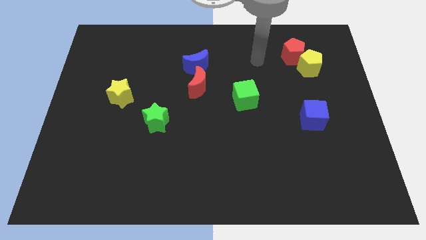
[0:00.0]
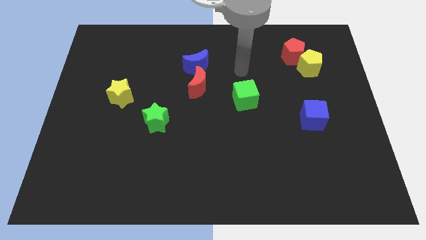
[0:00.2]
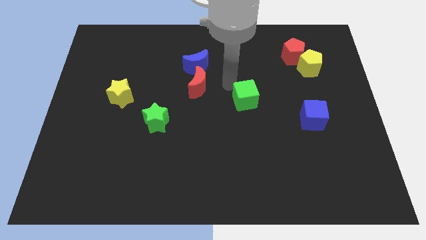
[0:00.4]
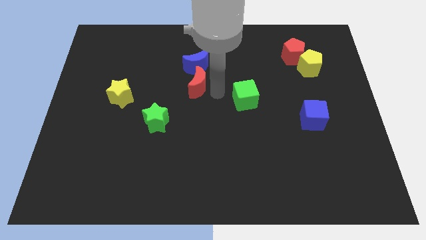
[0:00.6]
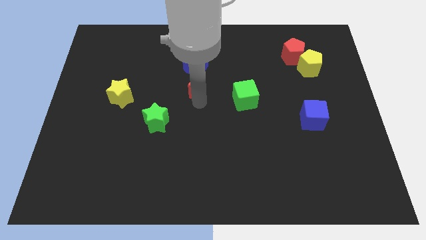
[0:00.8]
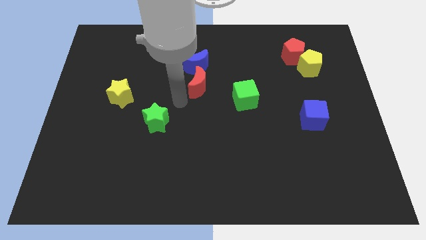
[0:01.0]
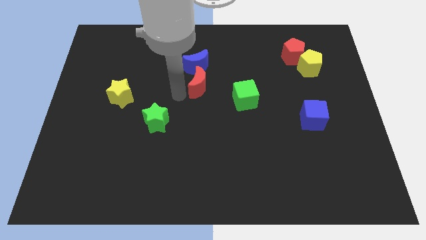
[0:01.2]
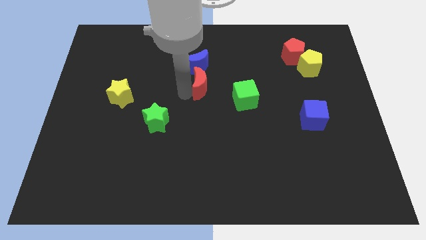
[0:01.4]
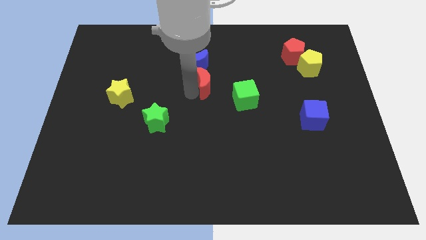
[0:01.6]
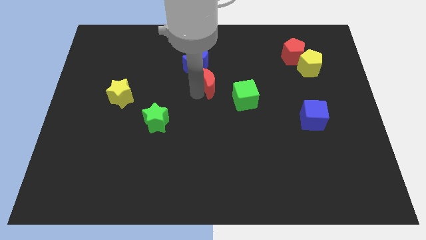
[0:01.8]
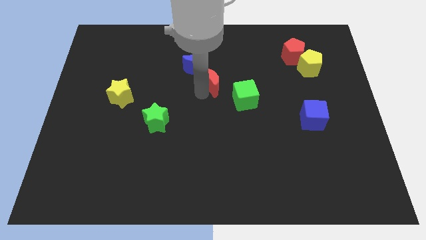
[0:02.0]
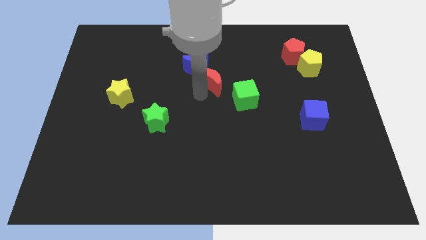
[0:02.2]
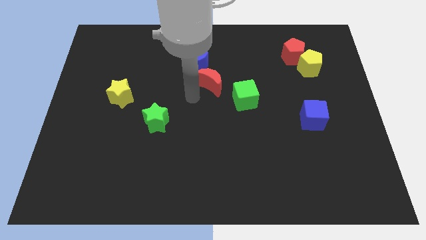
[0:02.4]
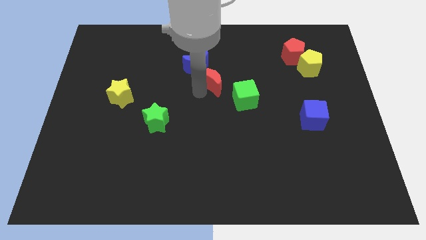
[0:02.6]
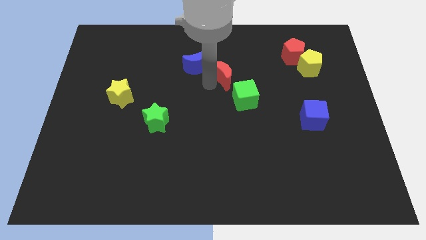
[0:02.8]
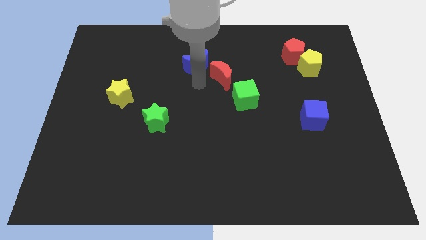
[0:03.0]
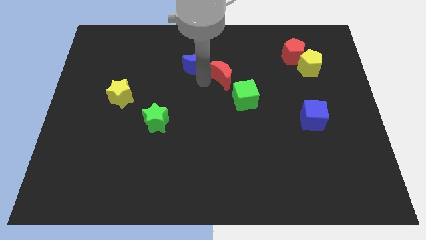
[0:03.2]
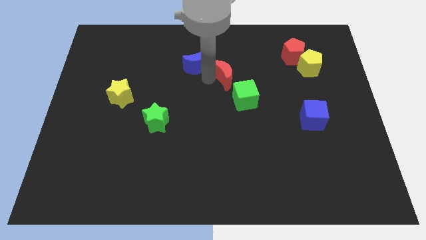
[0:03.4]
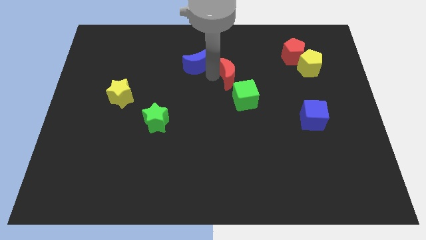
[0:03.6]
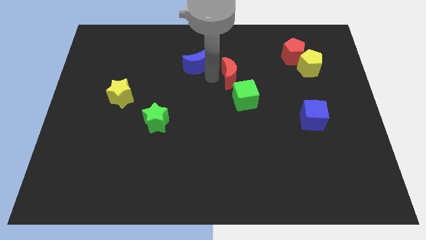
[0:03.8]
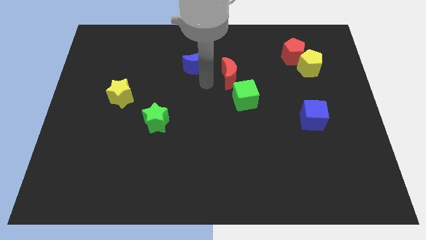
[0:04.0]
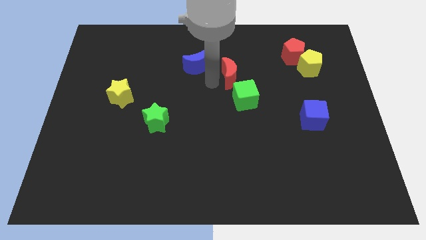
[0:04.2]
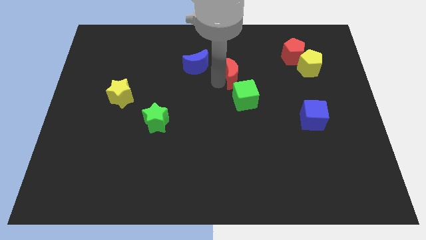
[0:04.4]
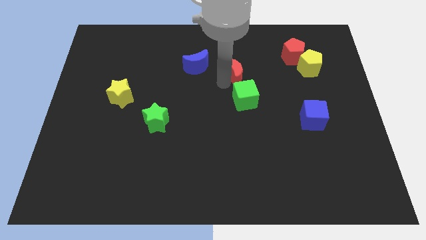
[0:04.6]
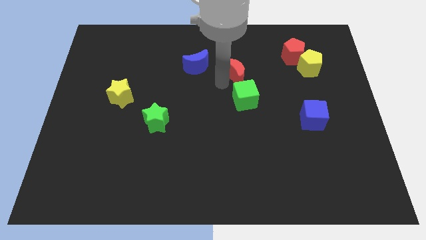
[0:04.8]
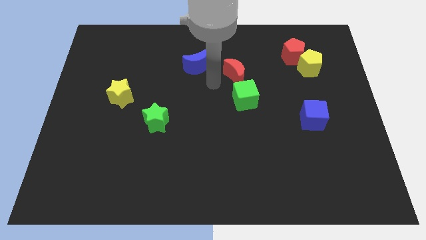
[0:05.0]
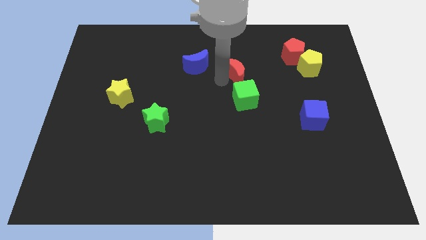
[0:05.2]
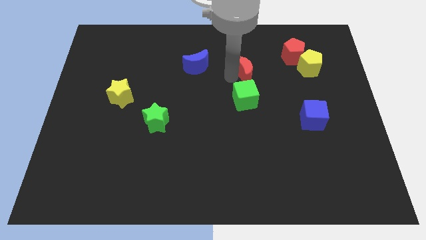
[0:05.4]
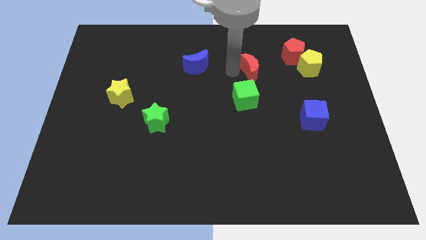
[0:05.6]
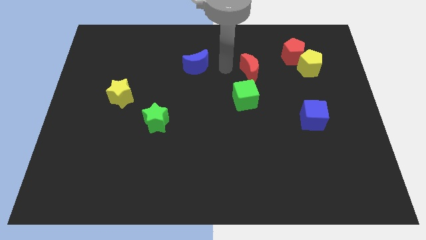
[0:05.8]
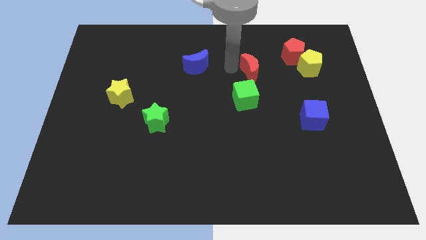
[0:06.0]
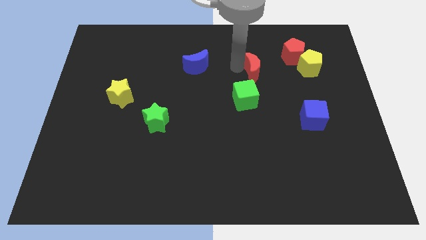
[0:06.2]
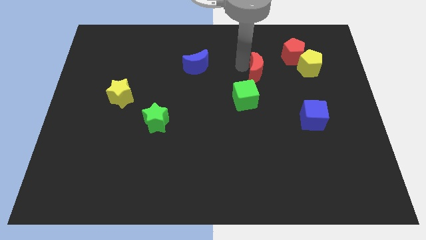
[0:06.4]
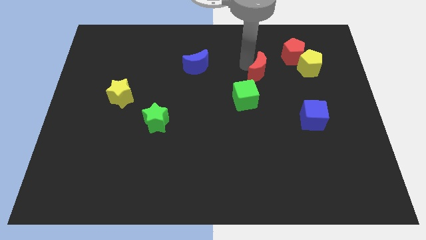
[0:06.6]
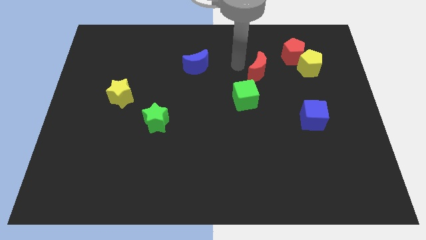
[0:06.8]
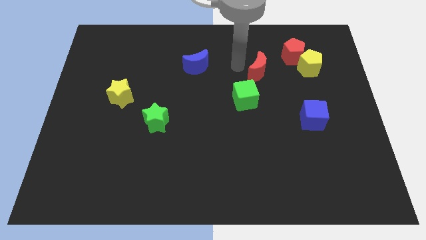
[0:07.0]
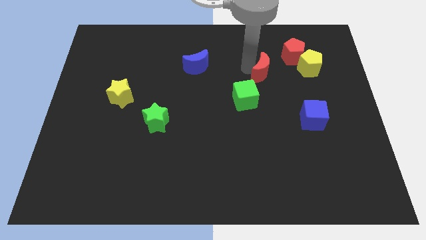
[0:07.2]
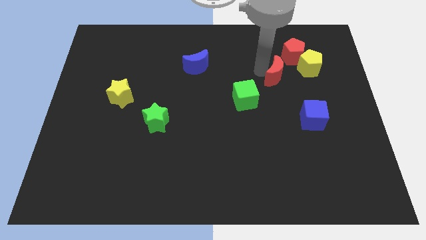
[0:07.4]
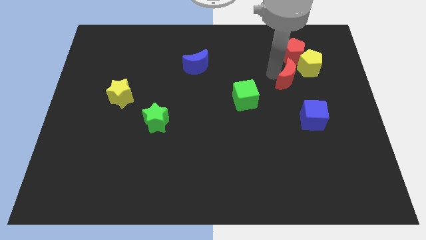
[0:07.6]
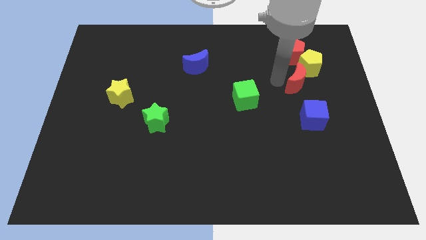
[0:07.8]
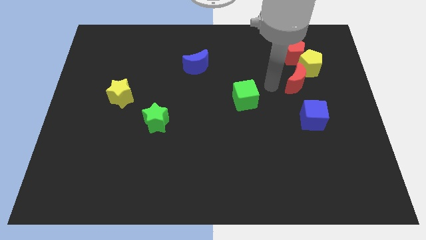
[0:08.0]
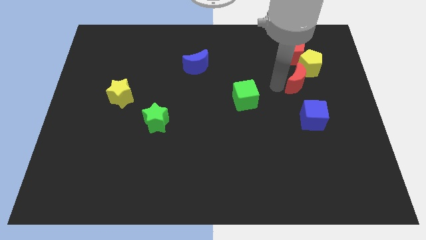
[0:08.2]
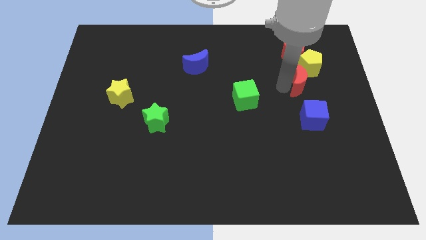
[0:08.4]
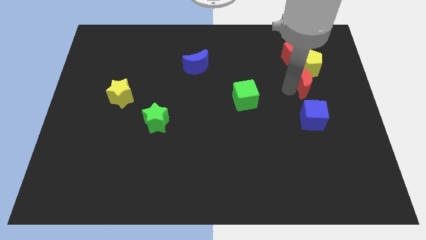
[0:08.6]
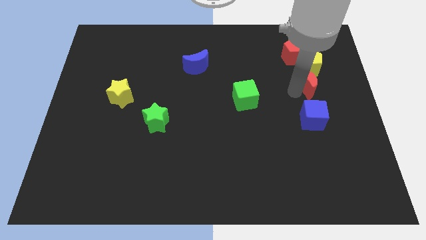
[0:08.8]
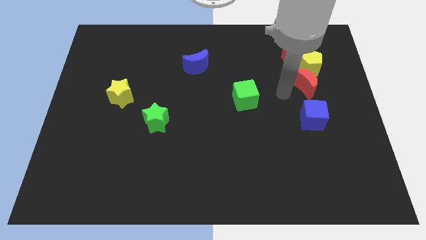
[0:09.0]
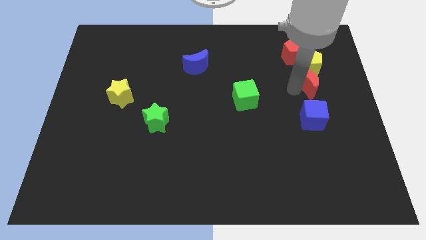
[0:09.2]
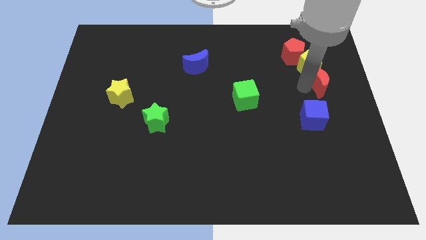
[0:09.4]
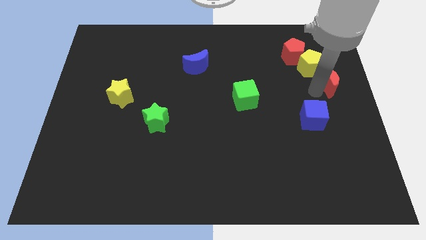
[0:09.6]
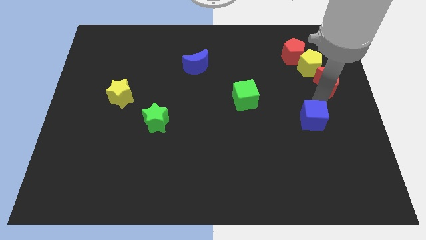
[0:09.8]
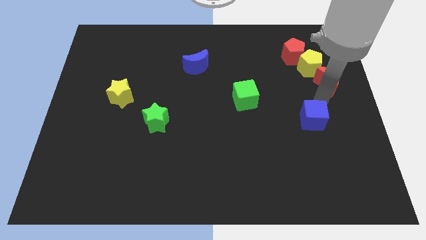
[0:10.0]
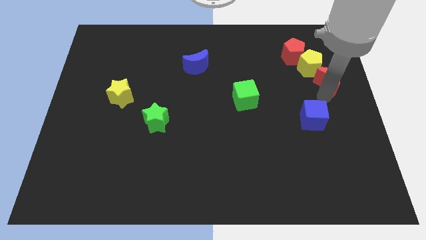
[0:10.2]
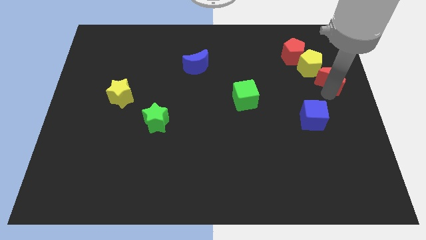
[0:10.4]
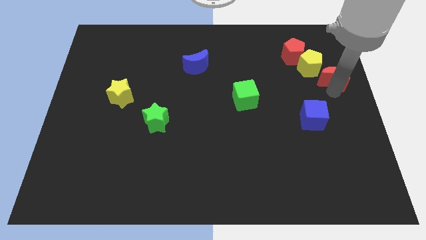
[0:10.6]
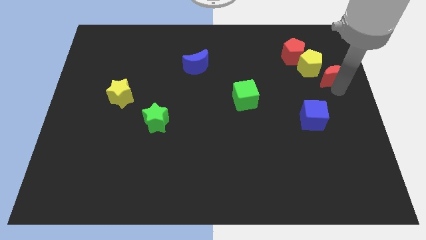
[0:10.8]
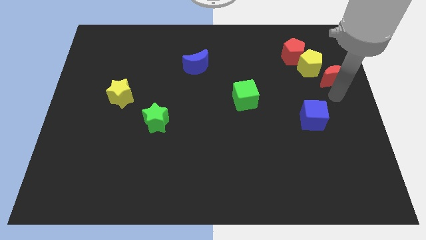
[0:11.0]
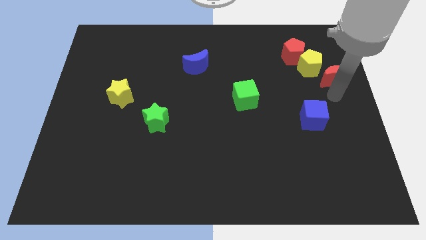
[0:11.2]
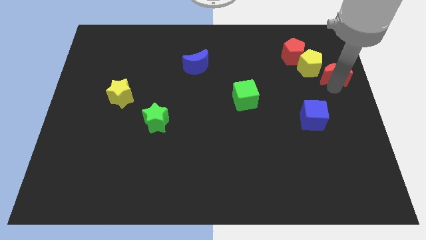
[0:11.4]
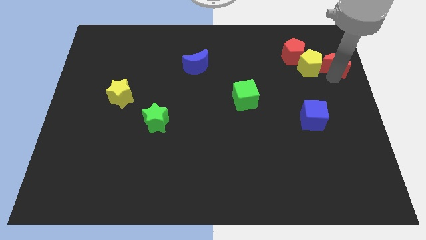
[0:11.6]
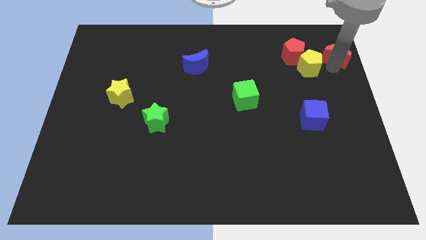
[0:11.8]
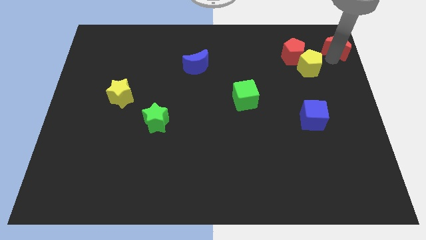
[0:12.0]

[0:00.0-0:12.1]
slide the red moon to the top right
